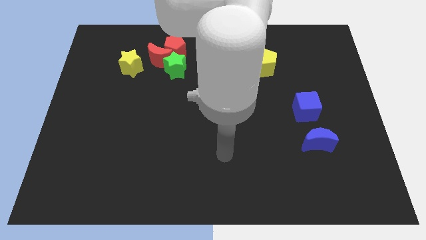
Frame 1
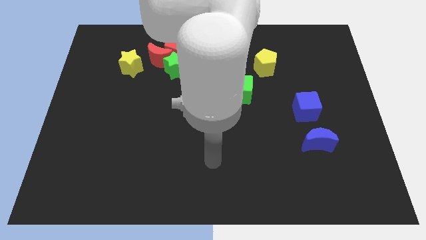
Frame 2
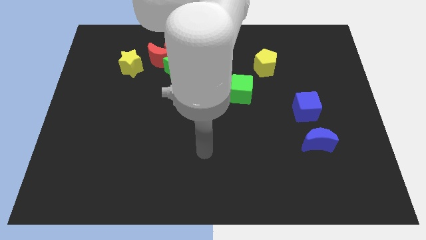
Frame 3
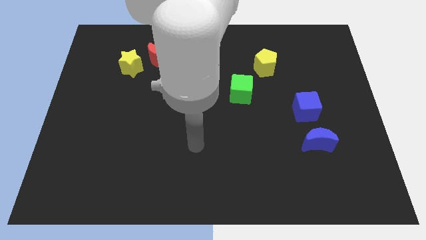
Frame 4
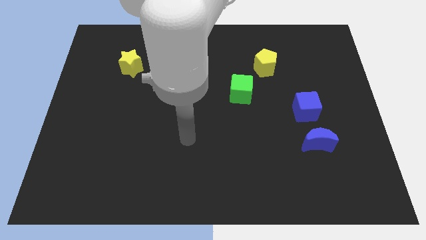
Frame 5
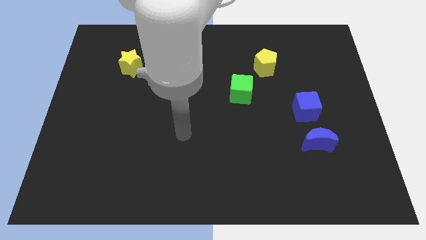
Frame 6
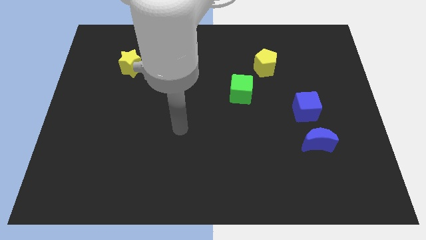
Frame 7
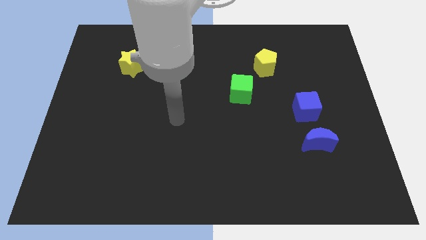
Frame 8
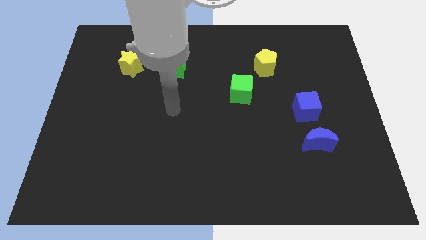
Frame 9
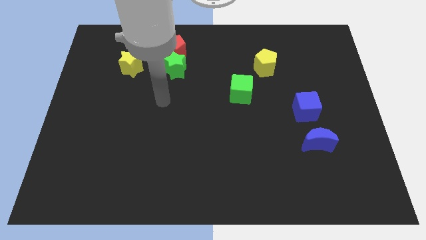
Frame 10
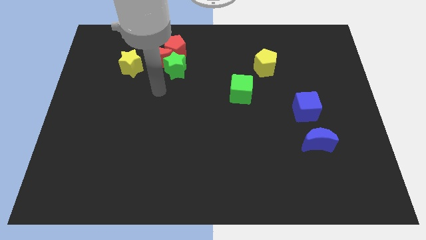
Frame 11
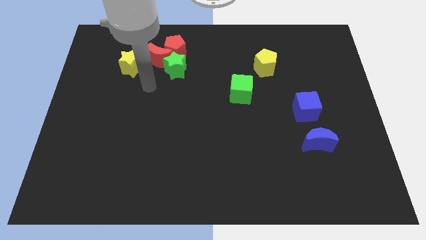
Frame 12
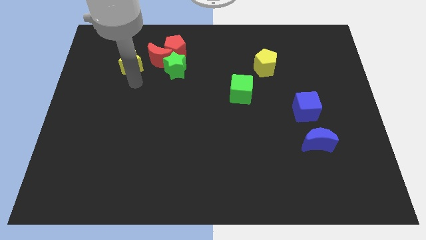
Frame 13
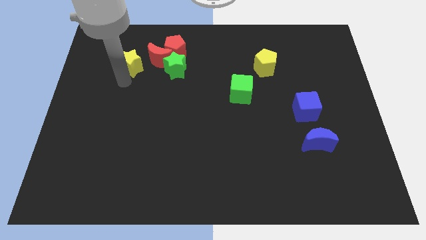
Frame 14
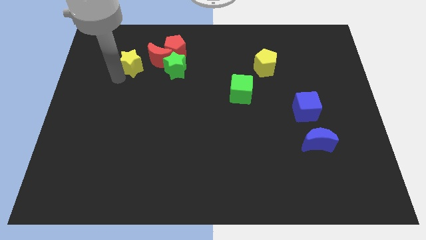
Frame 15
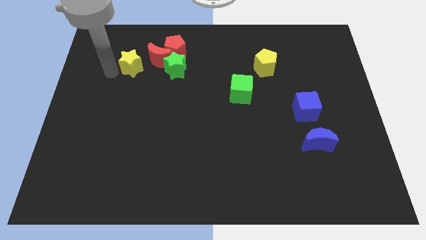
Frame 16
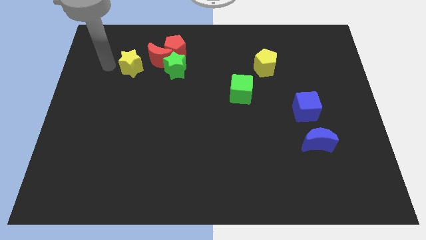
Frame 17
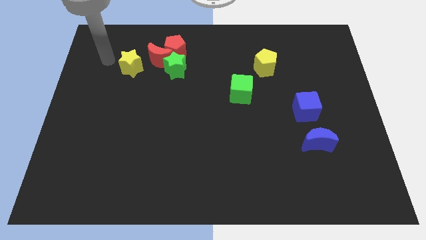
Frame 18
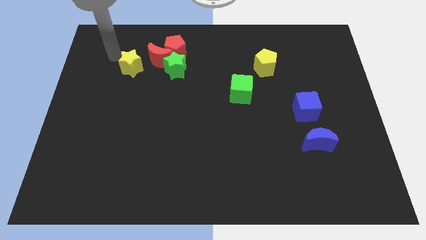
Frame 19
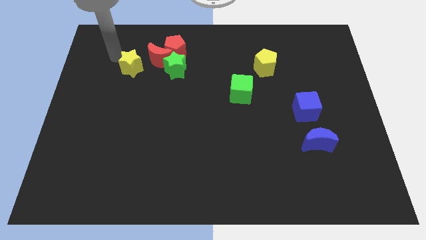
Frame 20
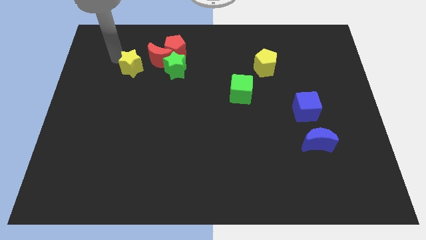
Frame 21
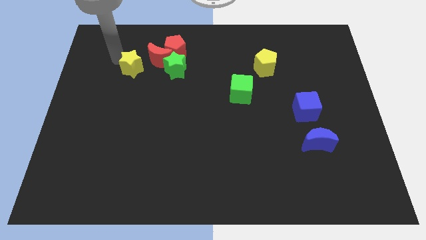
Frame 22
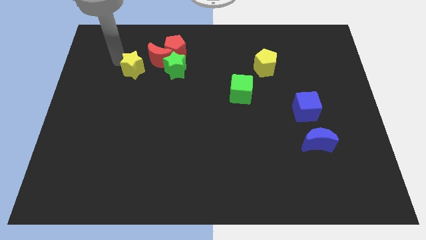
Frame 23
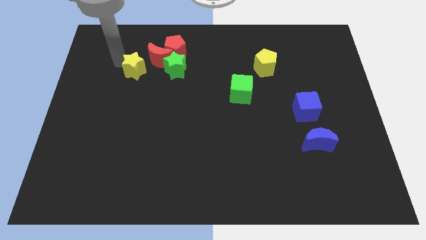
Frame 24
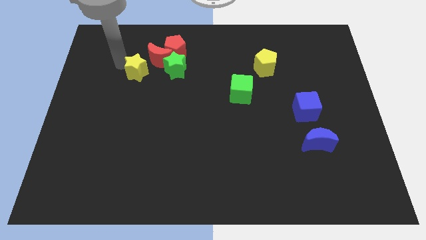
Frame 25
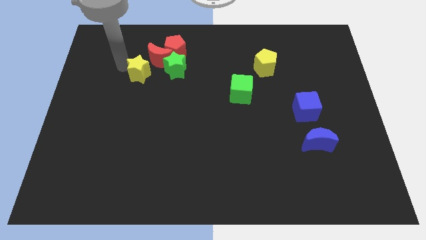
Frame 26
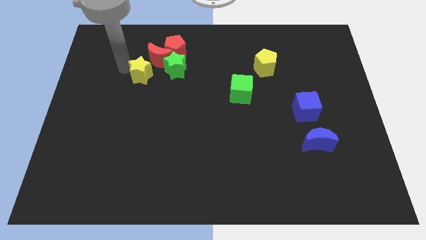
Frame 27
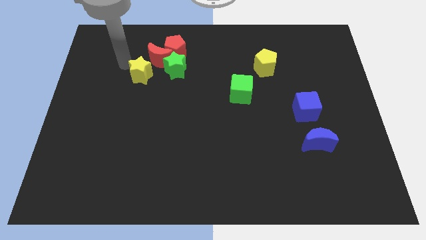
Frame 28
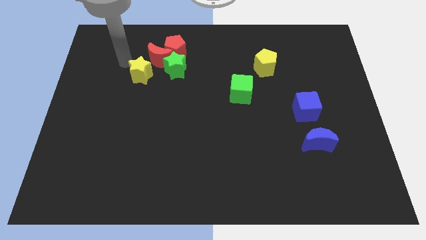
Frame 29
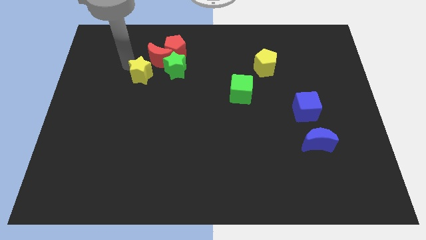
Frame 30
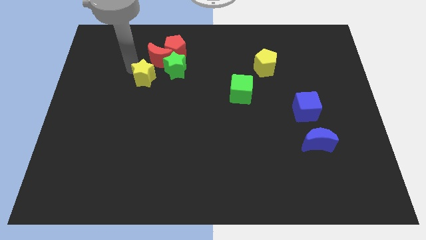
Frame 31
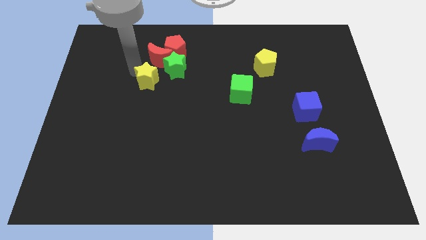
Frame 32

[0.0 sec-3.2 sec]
push the yellow star slightly down and then right

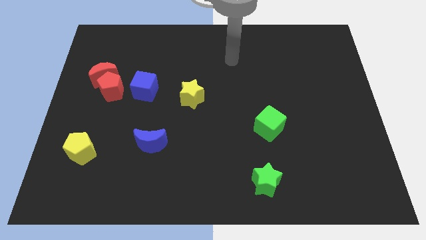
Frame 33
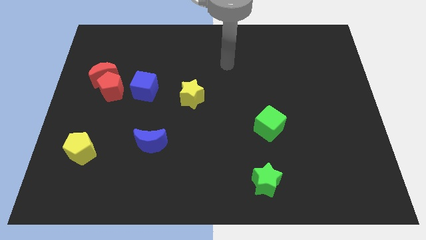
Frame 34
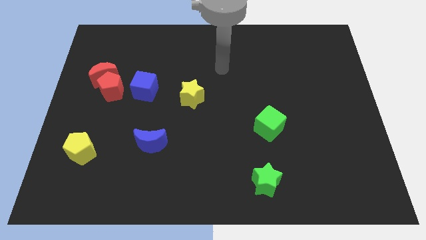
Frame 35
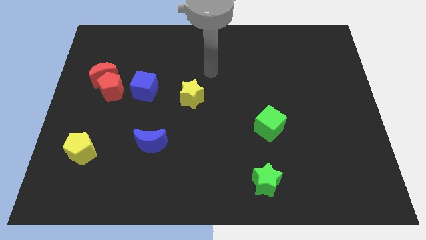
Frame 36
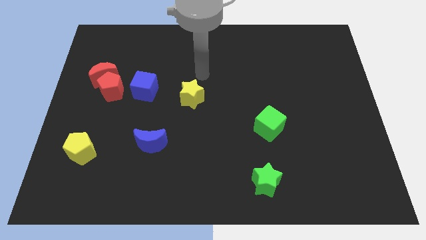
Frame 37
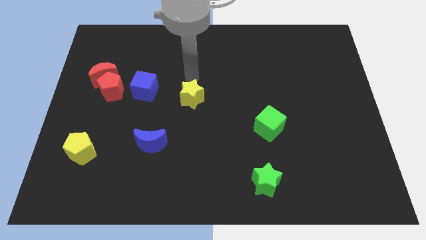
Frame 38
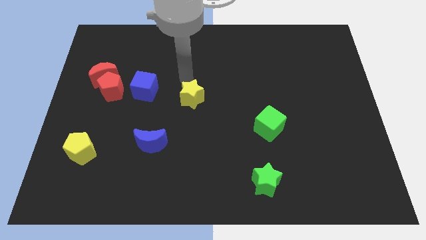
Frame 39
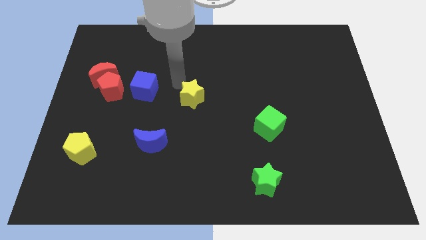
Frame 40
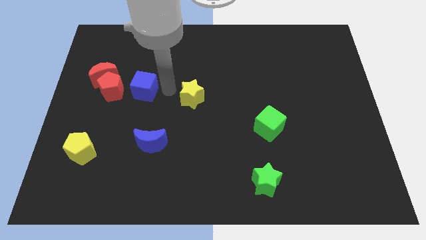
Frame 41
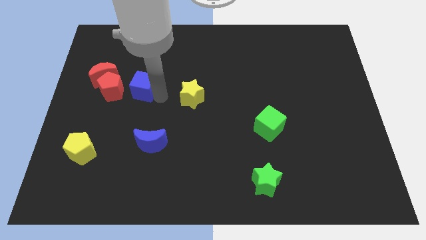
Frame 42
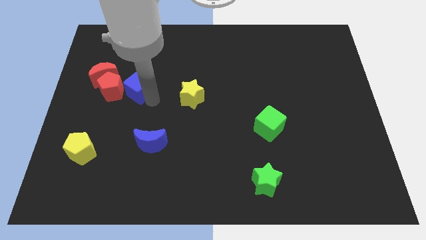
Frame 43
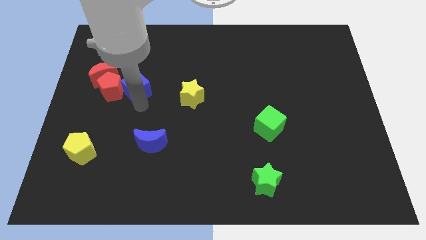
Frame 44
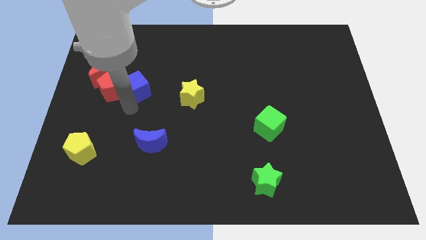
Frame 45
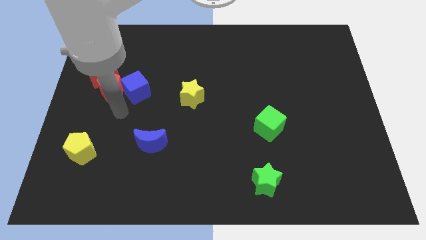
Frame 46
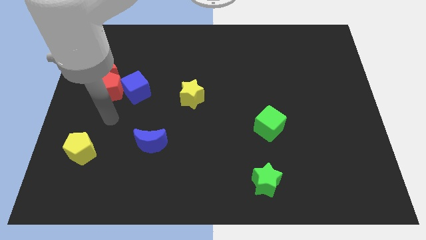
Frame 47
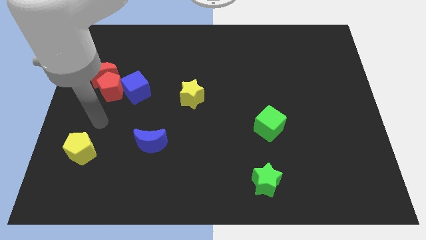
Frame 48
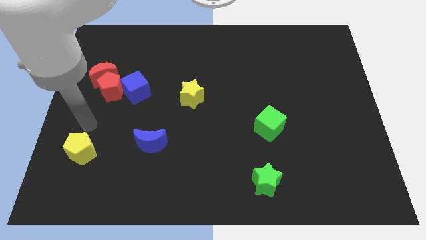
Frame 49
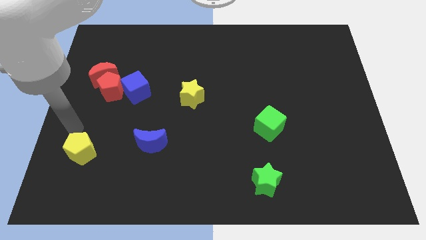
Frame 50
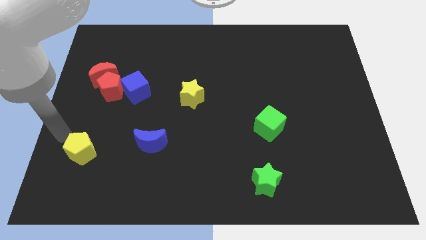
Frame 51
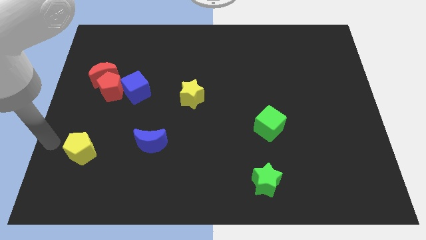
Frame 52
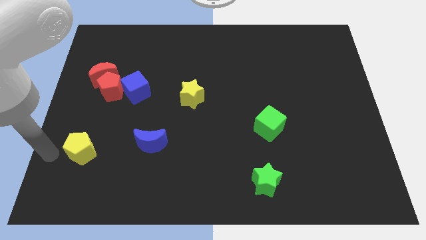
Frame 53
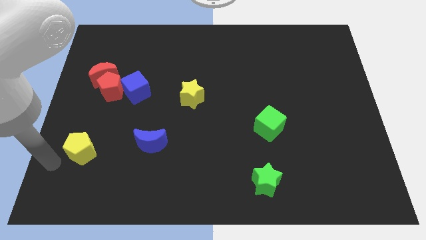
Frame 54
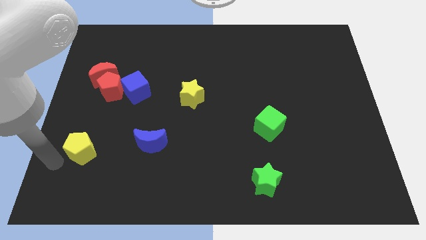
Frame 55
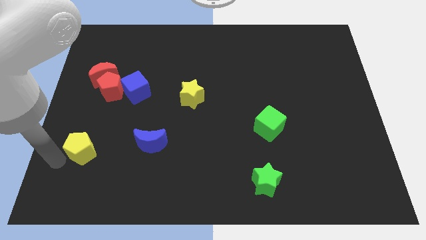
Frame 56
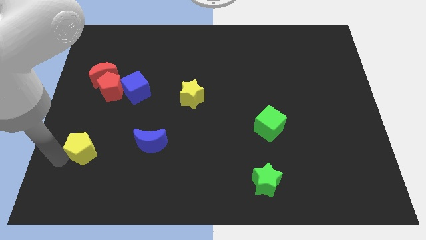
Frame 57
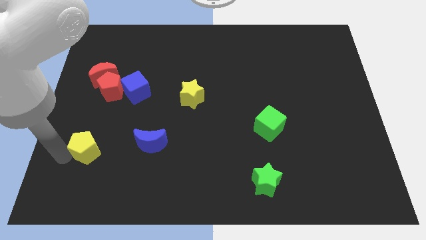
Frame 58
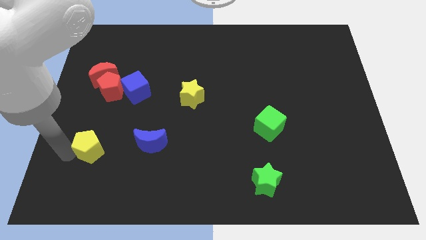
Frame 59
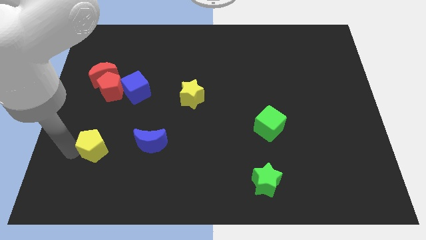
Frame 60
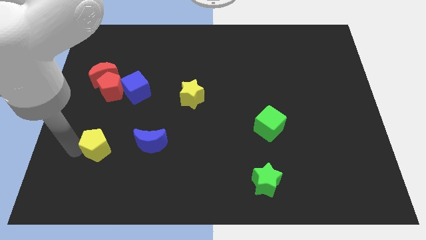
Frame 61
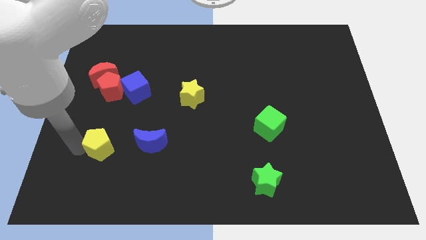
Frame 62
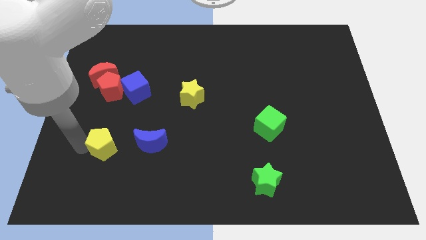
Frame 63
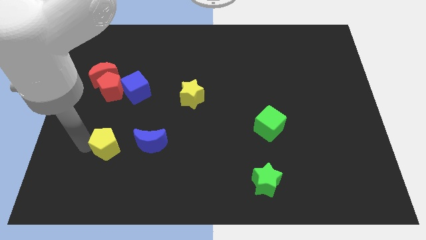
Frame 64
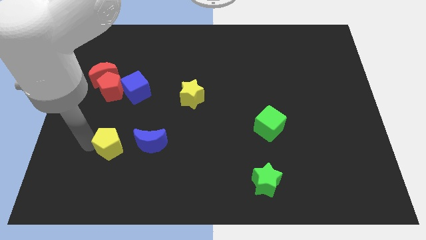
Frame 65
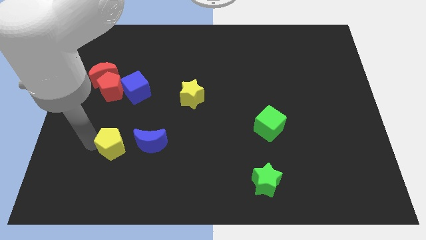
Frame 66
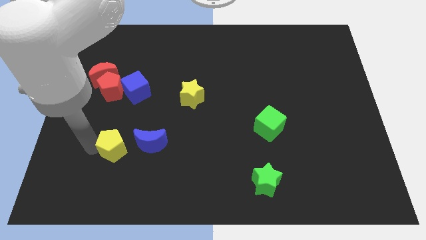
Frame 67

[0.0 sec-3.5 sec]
slide the yellow pentagon a little right

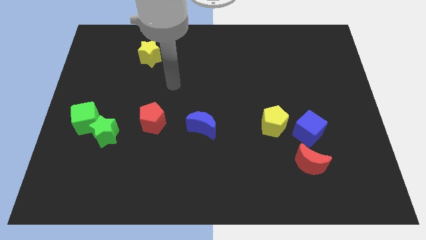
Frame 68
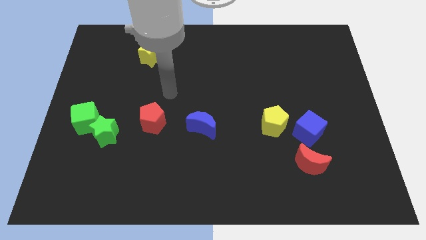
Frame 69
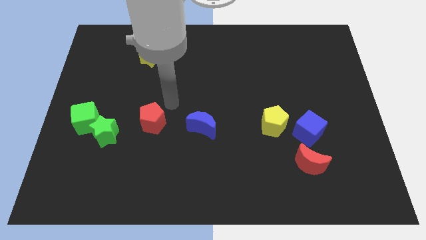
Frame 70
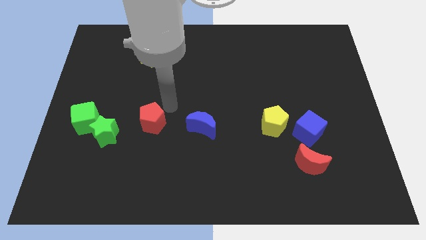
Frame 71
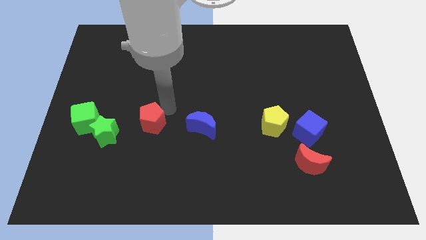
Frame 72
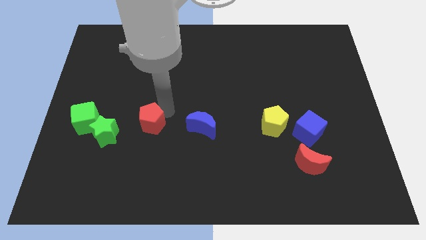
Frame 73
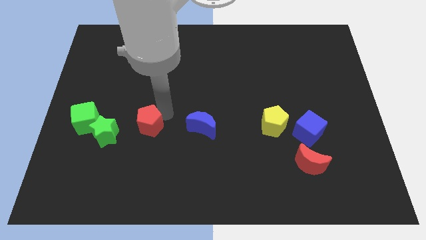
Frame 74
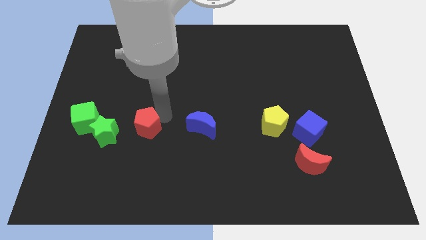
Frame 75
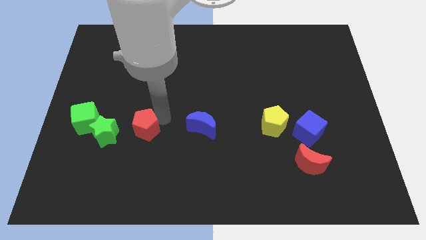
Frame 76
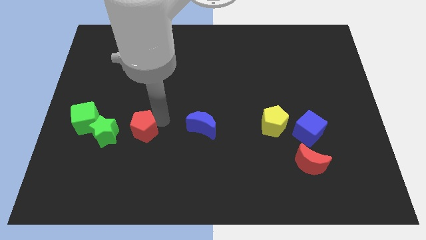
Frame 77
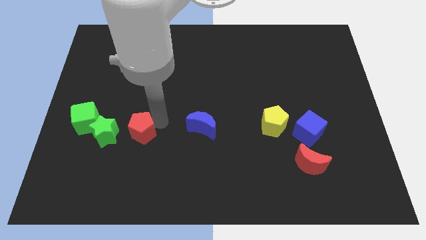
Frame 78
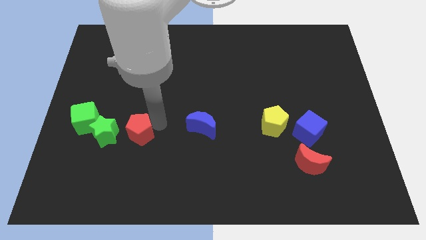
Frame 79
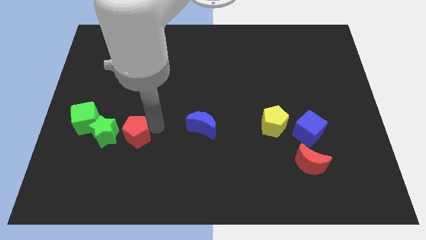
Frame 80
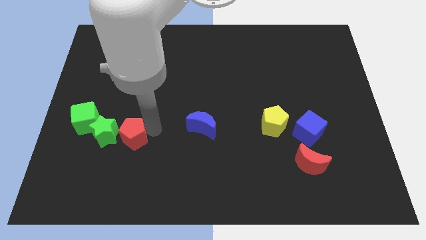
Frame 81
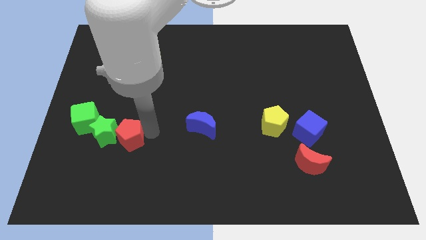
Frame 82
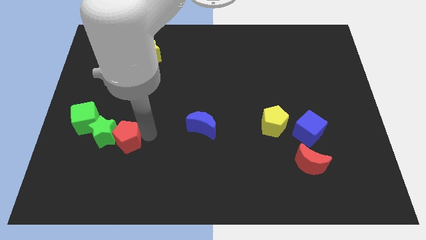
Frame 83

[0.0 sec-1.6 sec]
push the red pentagon a little downwards and then left

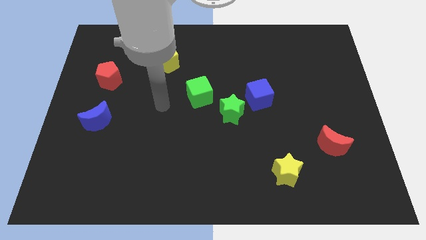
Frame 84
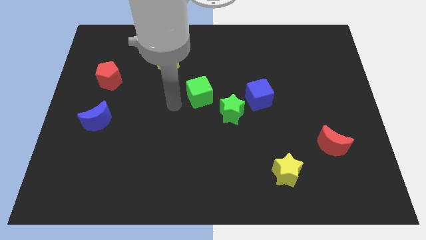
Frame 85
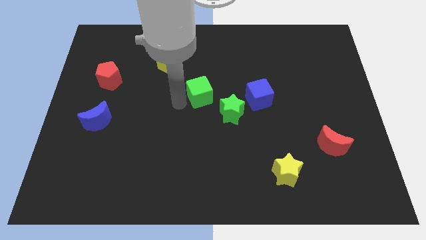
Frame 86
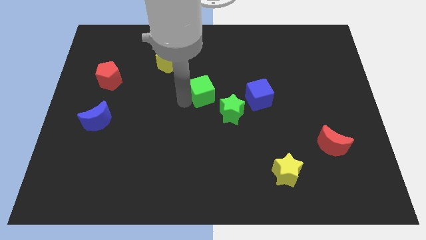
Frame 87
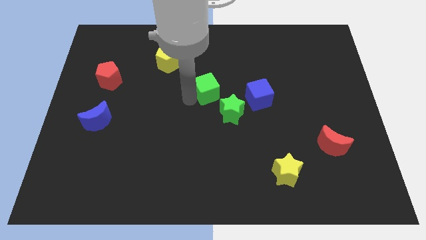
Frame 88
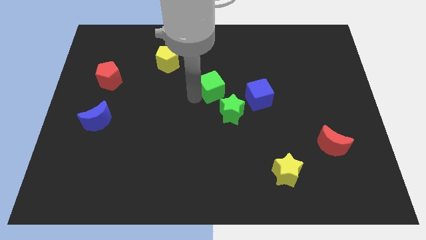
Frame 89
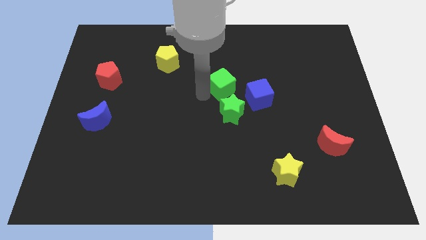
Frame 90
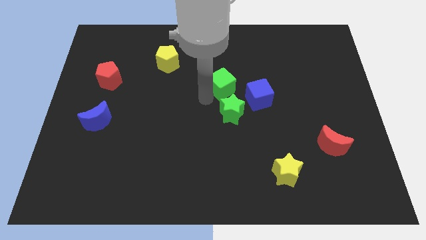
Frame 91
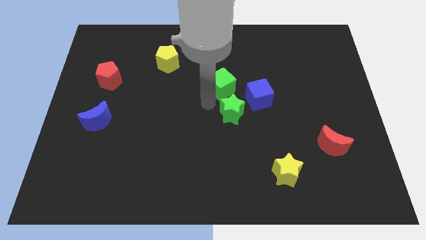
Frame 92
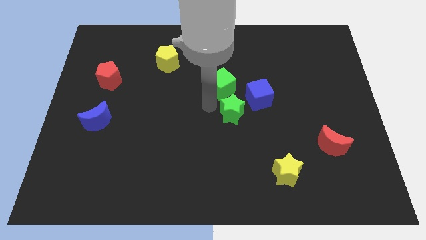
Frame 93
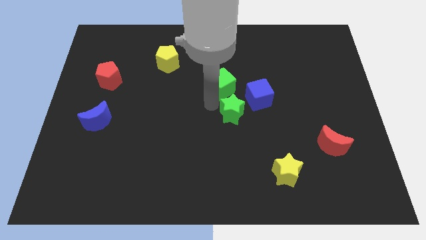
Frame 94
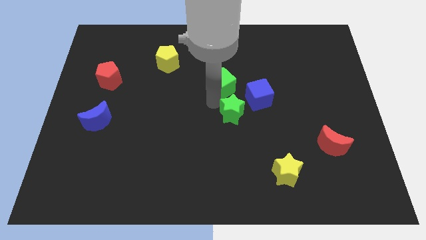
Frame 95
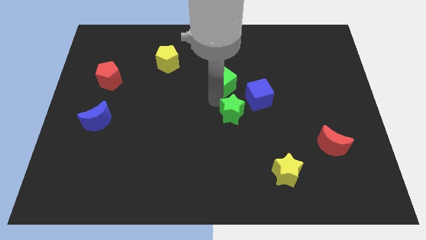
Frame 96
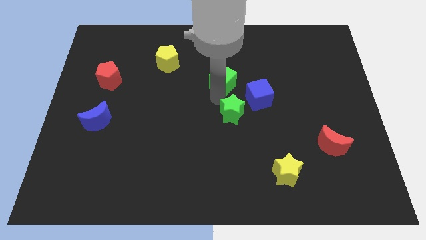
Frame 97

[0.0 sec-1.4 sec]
move the green cube upwards and then to the right slightly
